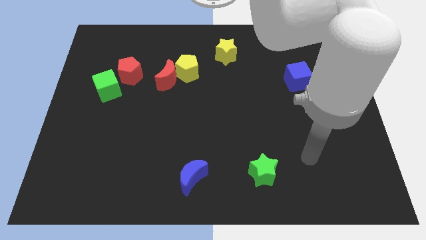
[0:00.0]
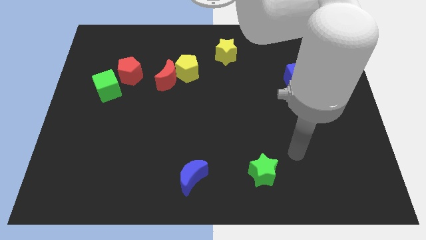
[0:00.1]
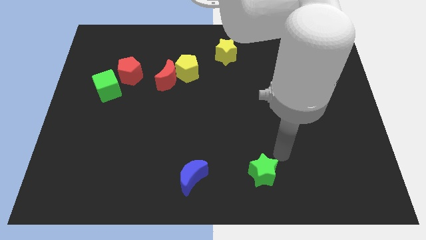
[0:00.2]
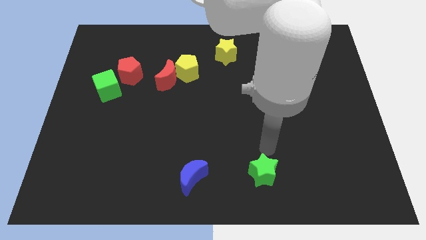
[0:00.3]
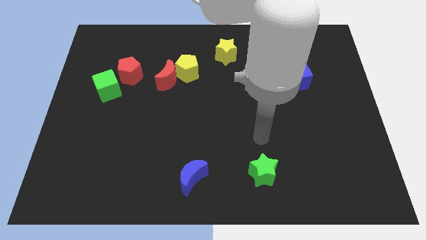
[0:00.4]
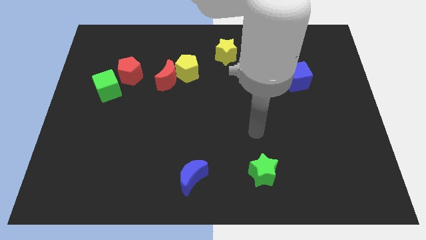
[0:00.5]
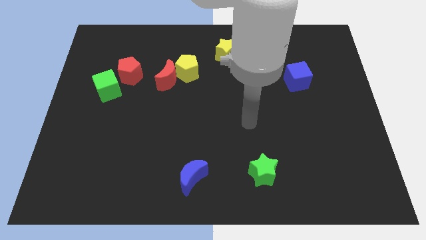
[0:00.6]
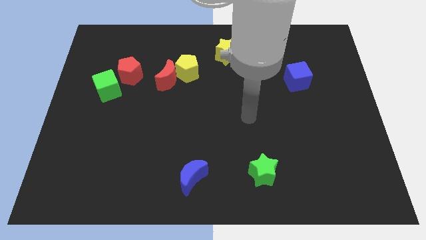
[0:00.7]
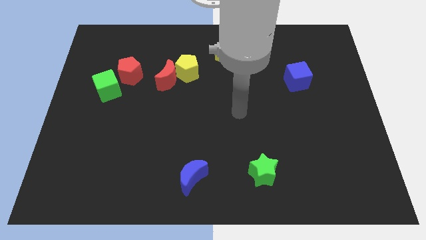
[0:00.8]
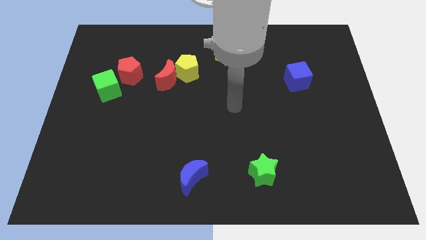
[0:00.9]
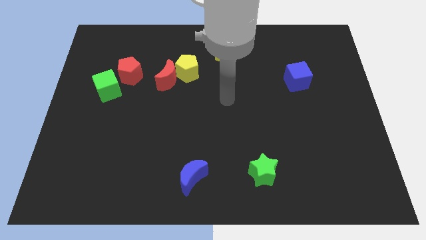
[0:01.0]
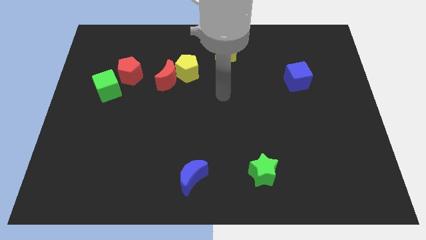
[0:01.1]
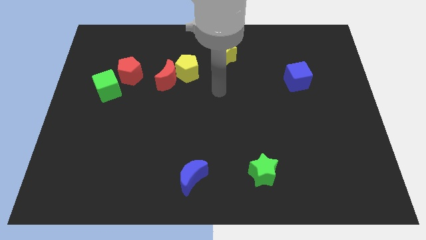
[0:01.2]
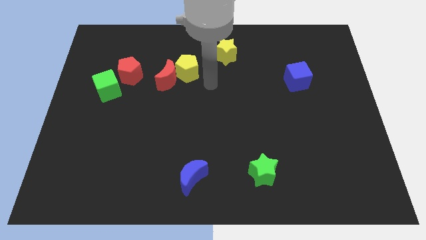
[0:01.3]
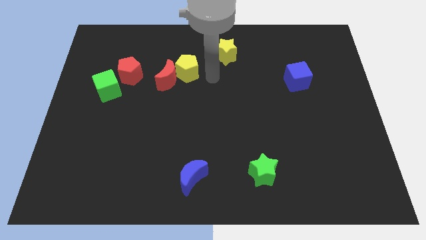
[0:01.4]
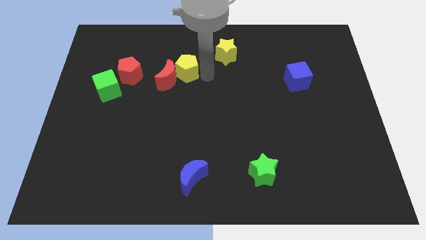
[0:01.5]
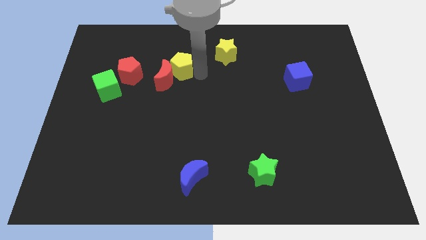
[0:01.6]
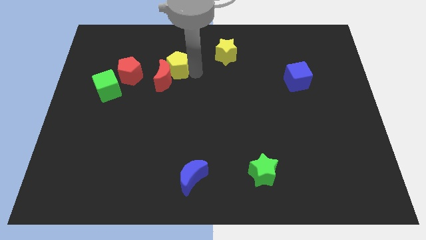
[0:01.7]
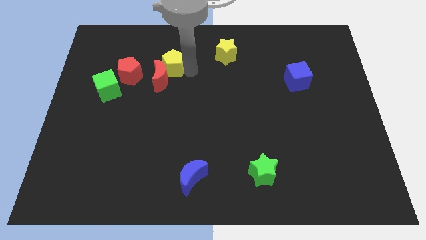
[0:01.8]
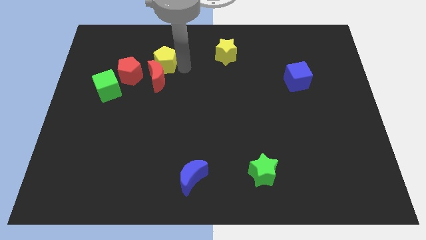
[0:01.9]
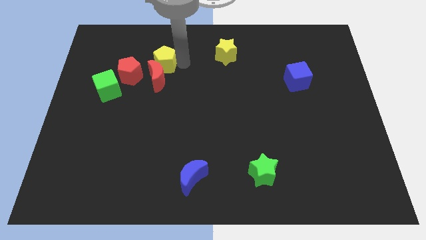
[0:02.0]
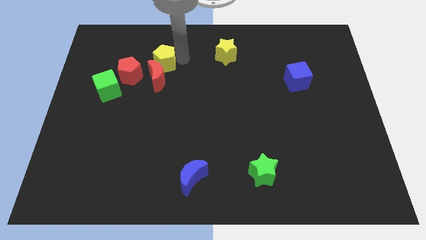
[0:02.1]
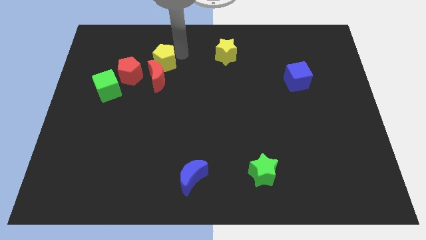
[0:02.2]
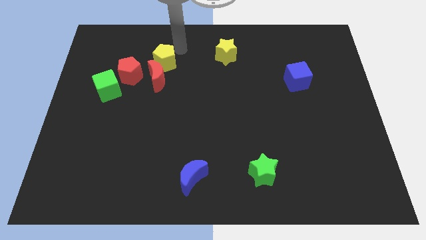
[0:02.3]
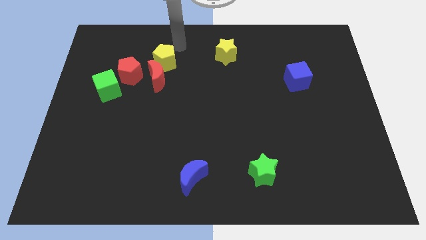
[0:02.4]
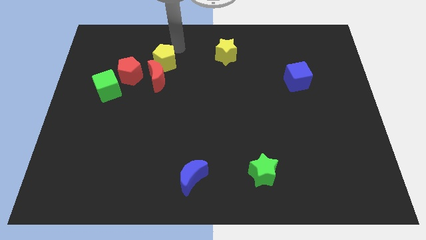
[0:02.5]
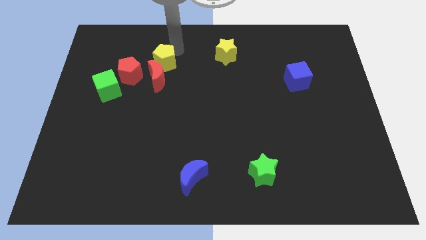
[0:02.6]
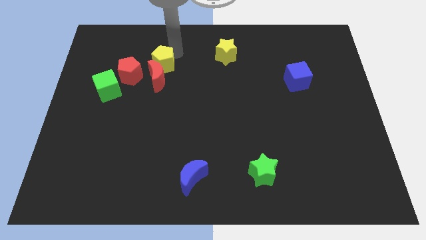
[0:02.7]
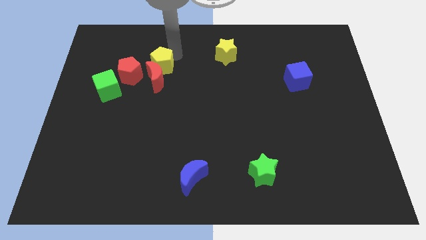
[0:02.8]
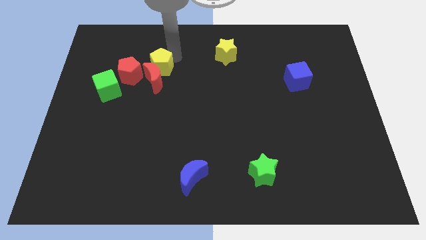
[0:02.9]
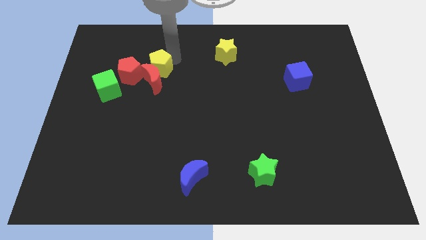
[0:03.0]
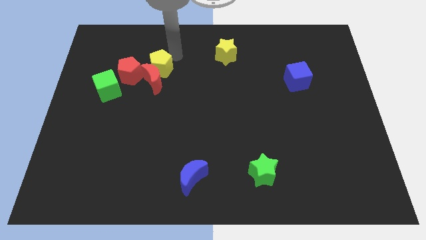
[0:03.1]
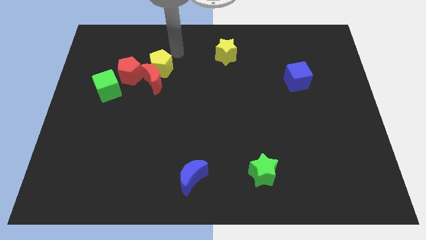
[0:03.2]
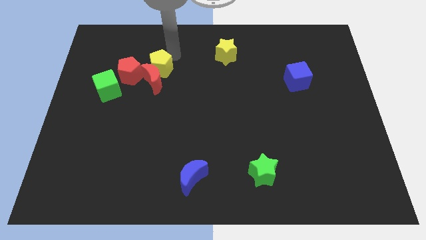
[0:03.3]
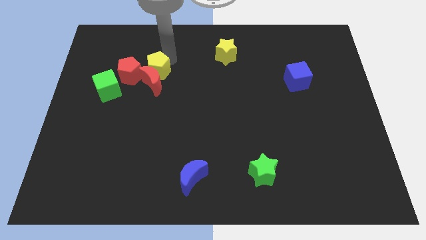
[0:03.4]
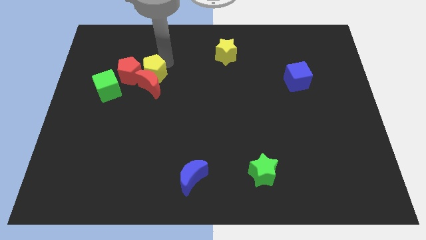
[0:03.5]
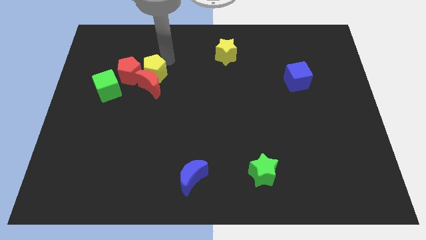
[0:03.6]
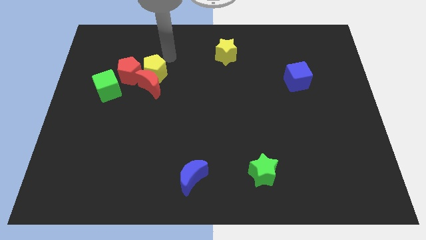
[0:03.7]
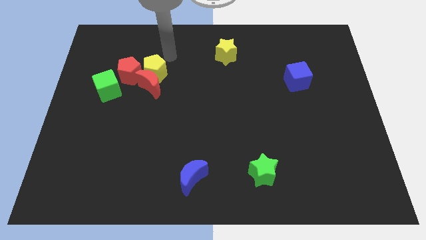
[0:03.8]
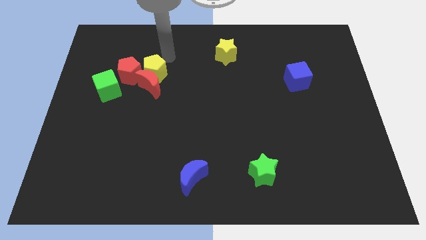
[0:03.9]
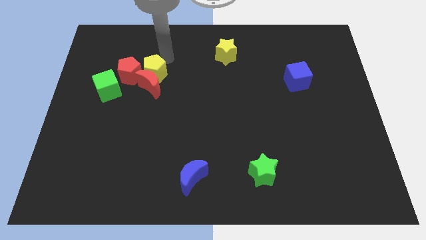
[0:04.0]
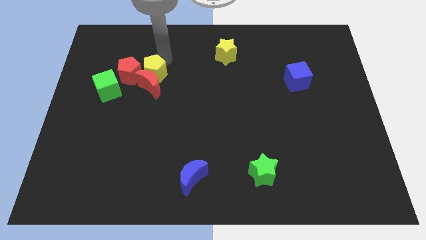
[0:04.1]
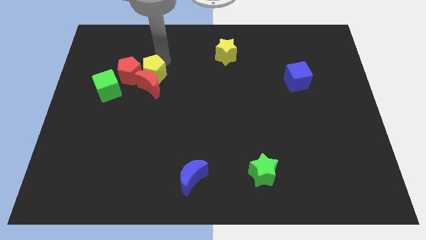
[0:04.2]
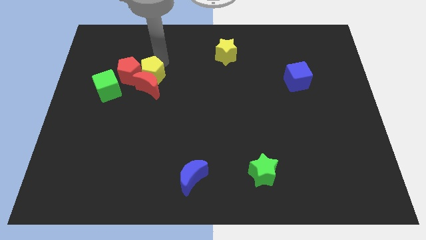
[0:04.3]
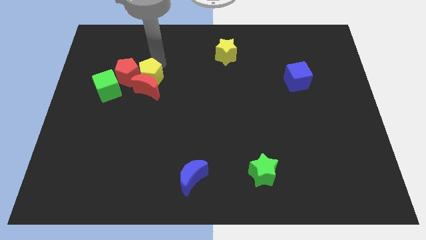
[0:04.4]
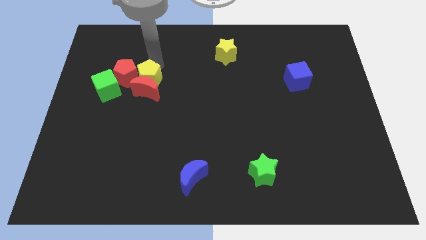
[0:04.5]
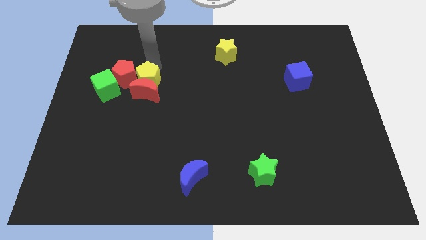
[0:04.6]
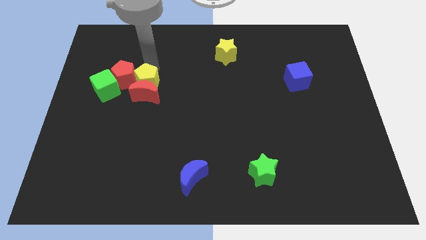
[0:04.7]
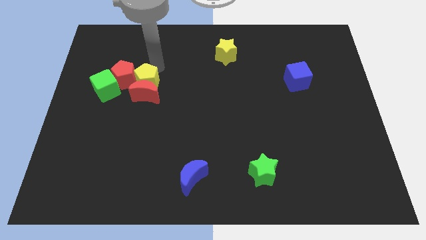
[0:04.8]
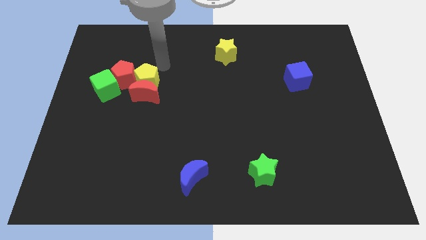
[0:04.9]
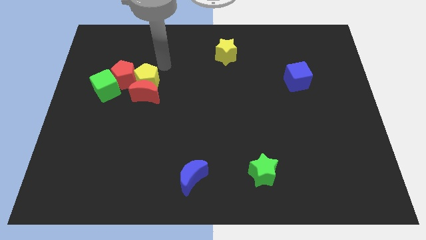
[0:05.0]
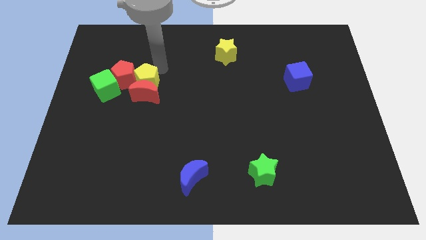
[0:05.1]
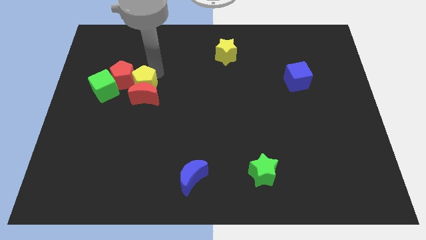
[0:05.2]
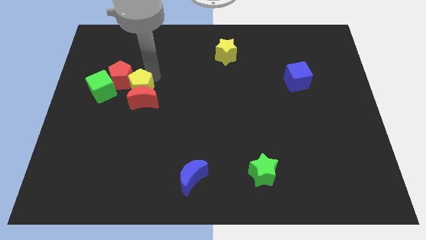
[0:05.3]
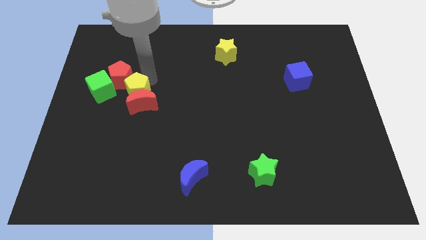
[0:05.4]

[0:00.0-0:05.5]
push the yellow pentagon to the bottom of the red pentagon
